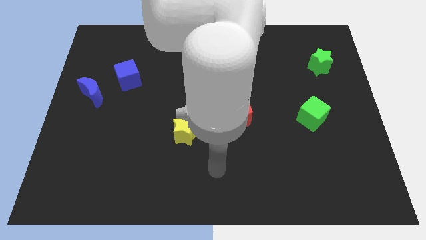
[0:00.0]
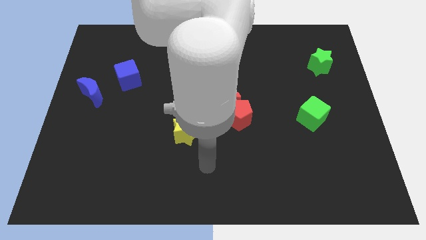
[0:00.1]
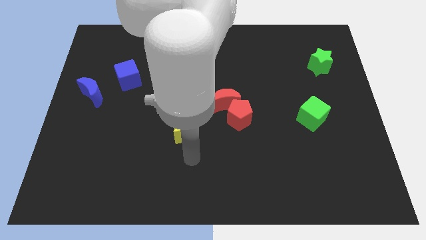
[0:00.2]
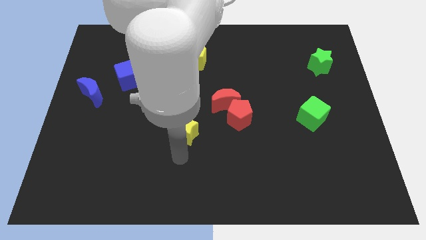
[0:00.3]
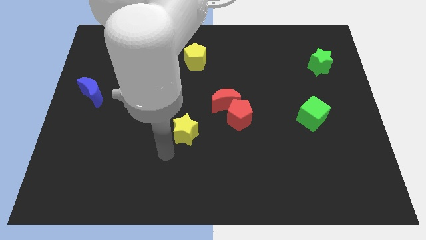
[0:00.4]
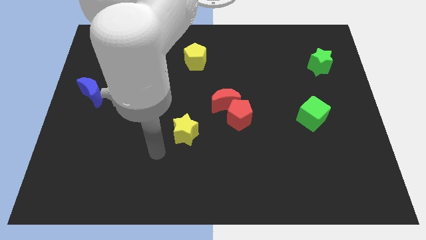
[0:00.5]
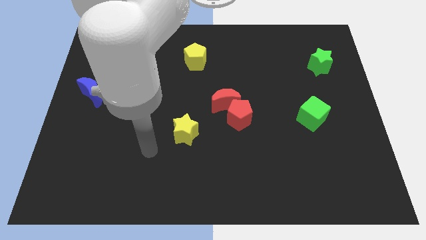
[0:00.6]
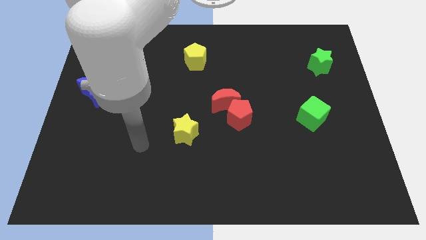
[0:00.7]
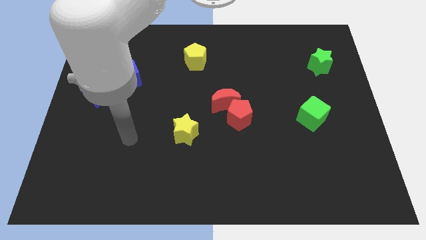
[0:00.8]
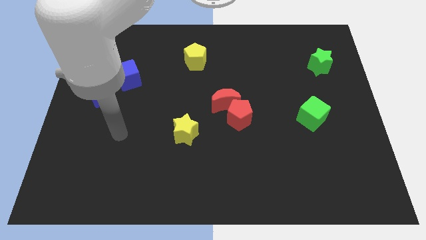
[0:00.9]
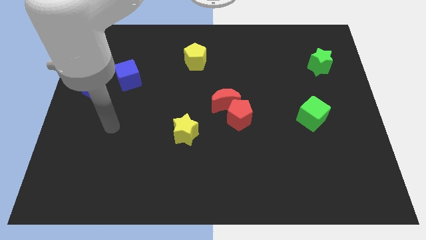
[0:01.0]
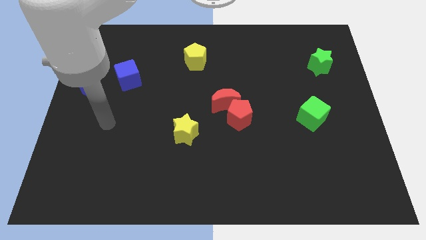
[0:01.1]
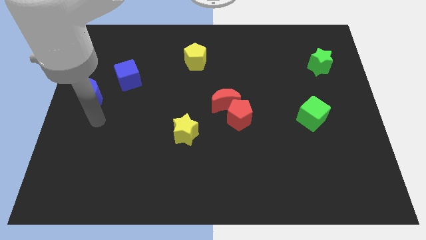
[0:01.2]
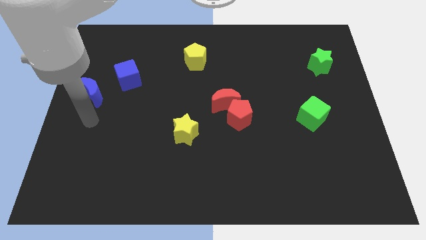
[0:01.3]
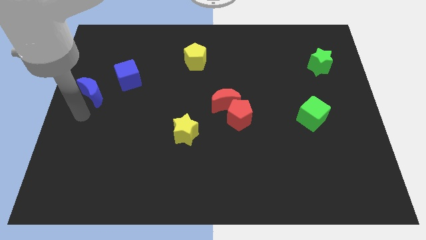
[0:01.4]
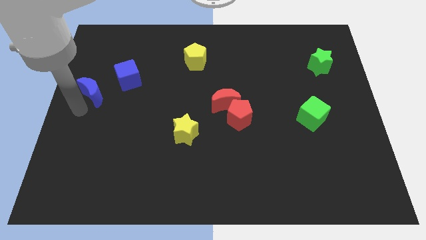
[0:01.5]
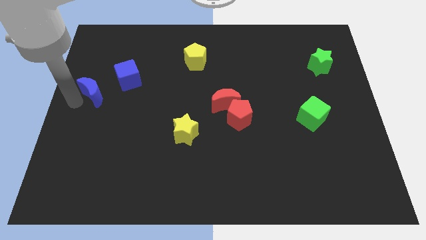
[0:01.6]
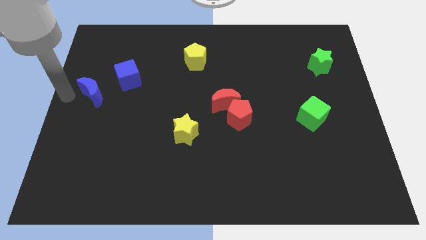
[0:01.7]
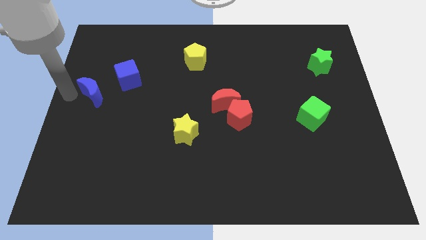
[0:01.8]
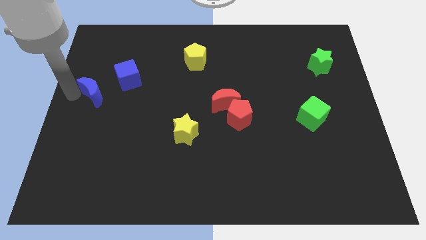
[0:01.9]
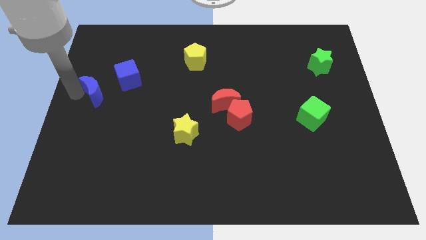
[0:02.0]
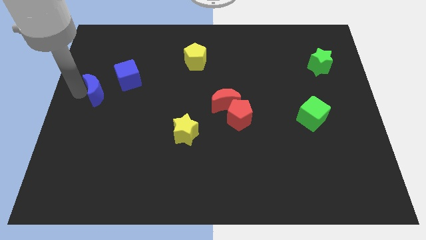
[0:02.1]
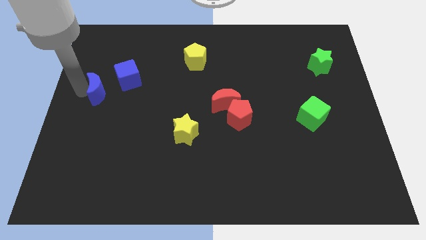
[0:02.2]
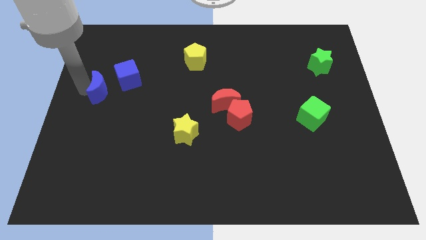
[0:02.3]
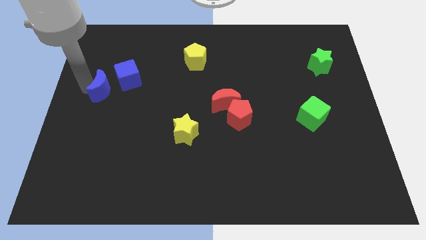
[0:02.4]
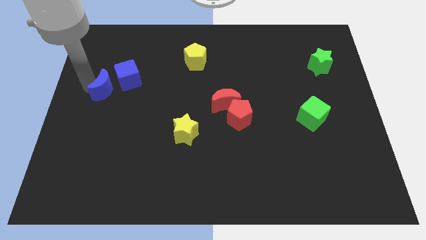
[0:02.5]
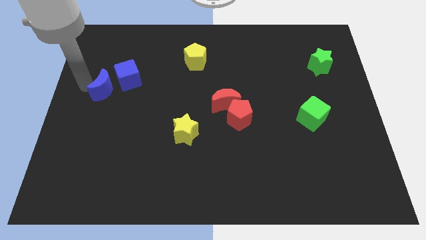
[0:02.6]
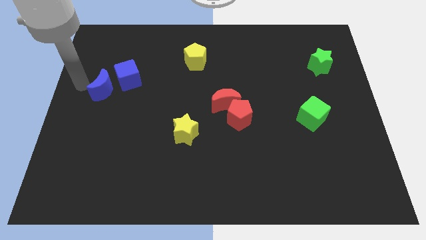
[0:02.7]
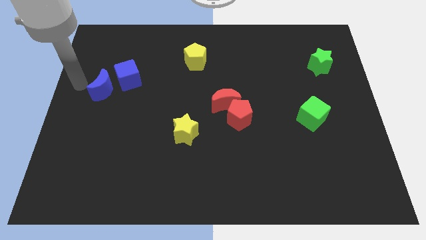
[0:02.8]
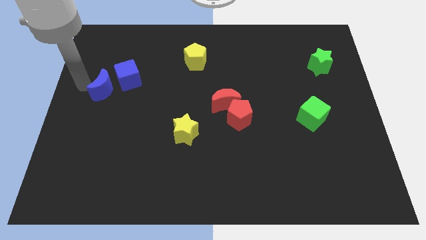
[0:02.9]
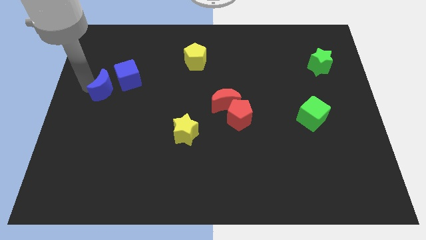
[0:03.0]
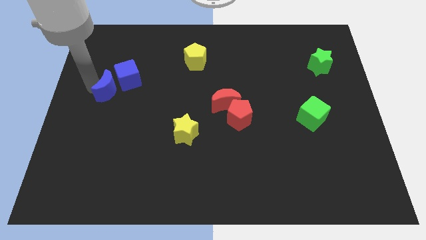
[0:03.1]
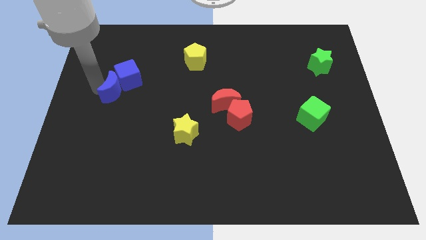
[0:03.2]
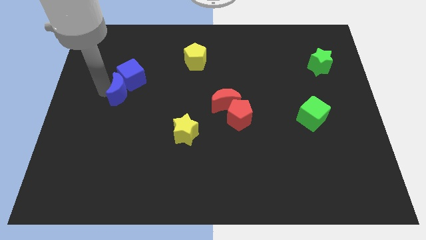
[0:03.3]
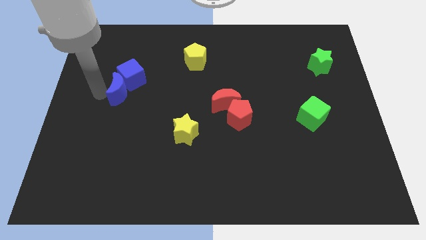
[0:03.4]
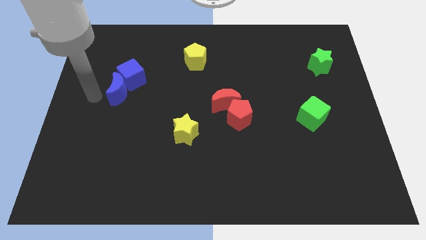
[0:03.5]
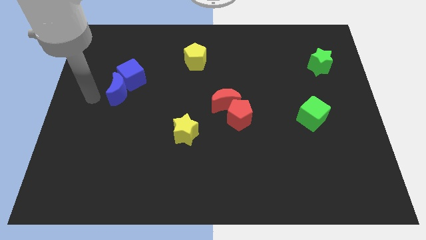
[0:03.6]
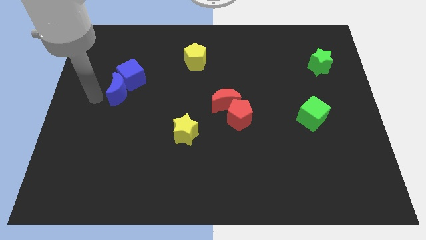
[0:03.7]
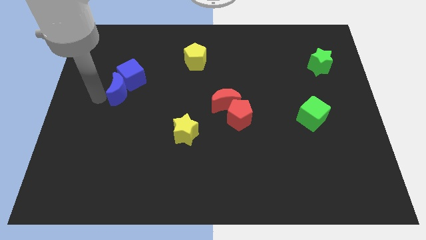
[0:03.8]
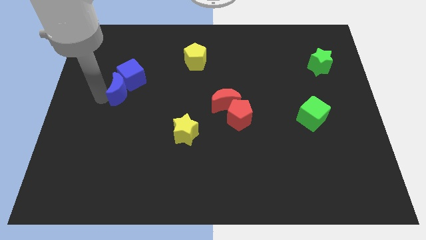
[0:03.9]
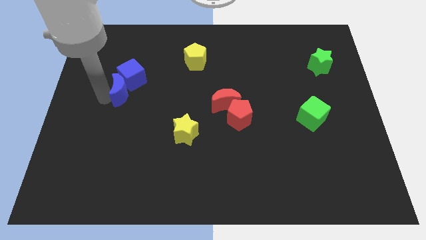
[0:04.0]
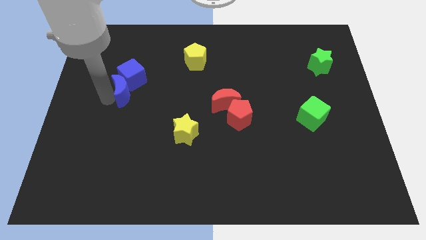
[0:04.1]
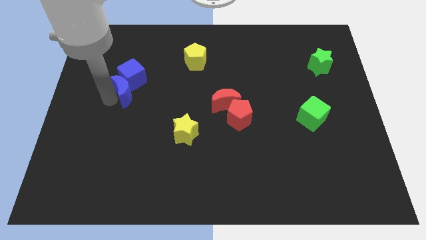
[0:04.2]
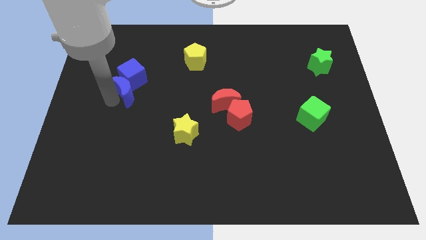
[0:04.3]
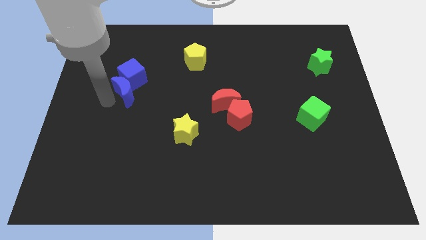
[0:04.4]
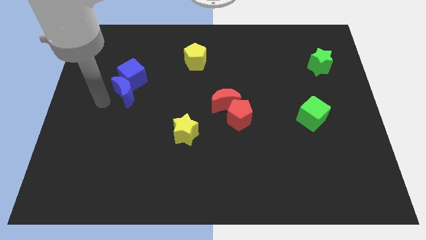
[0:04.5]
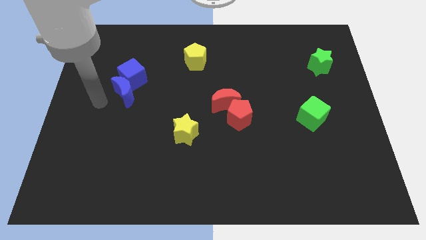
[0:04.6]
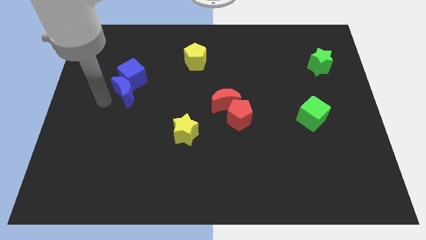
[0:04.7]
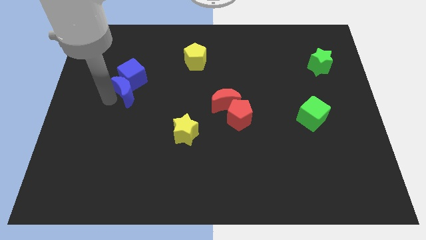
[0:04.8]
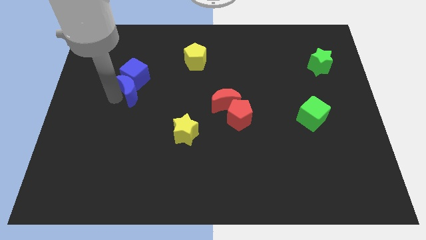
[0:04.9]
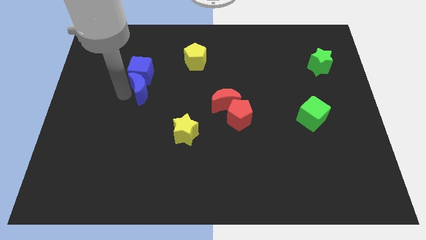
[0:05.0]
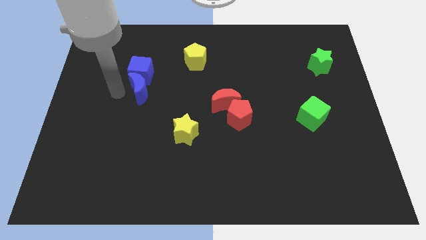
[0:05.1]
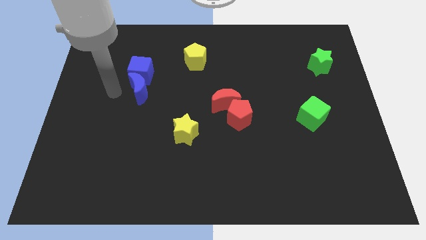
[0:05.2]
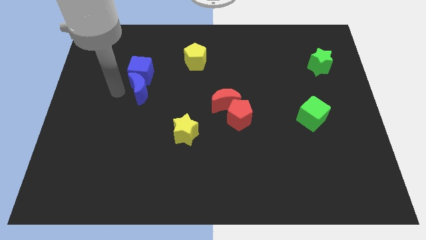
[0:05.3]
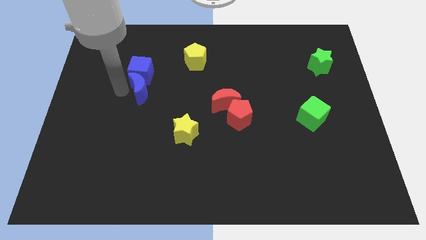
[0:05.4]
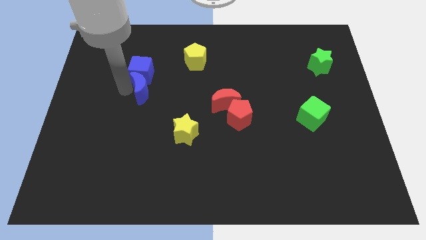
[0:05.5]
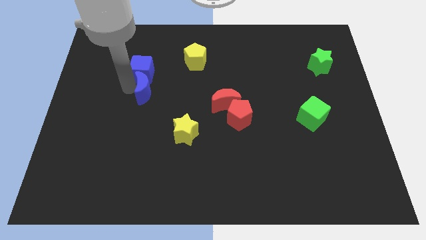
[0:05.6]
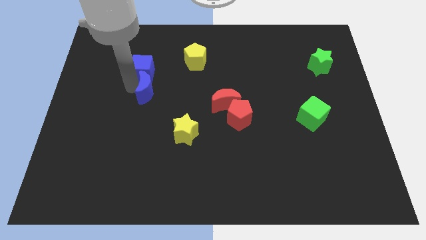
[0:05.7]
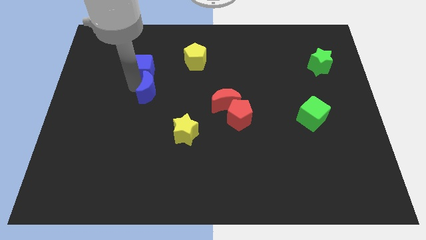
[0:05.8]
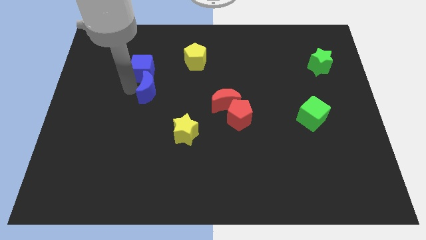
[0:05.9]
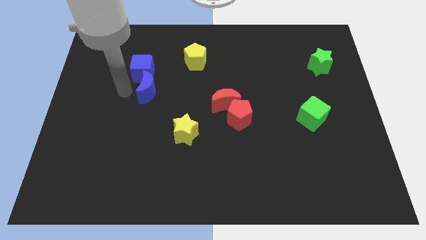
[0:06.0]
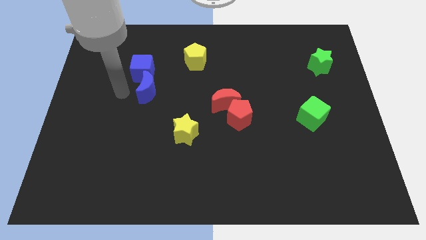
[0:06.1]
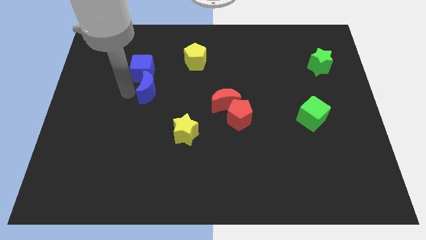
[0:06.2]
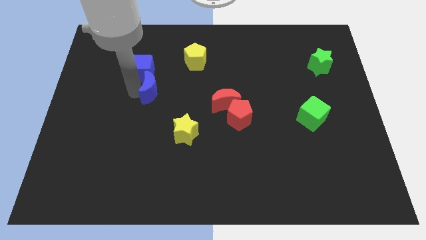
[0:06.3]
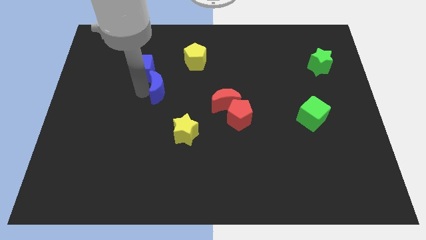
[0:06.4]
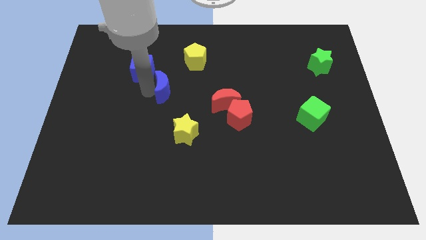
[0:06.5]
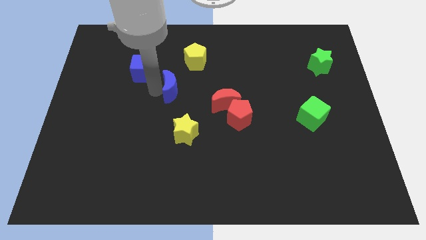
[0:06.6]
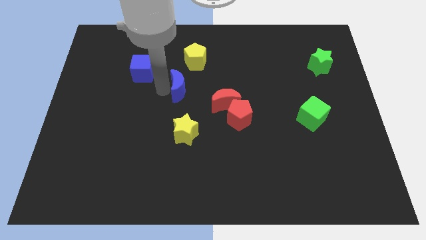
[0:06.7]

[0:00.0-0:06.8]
slide the blue moon below the yellow pentagon

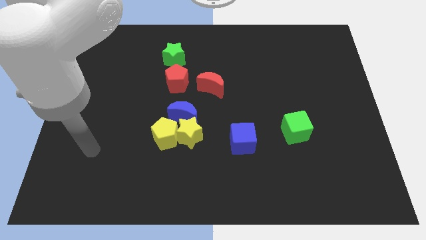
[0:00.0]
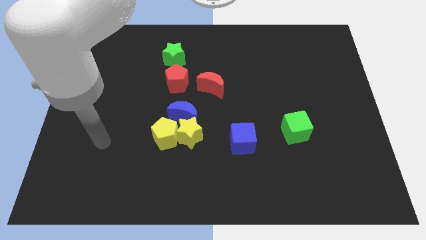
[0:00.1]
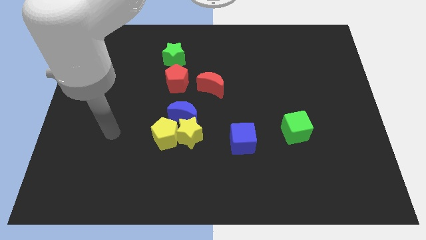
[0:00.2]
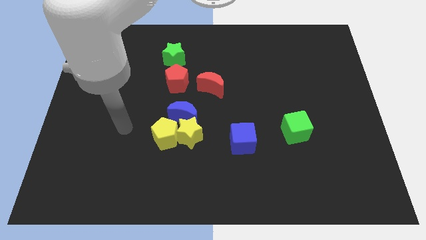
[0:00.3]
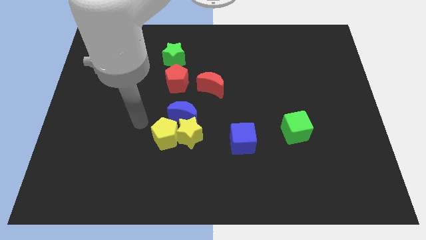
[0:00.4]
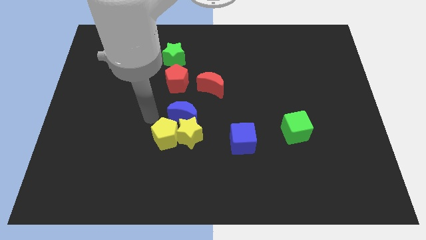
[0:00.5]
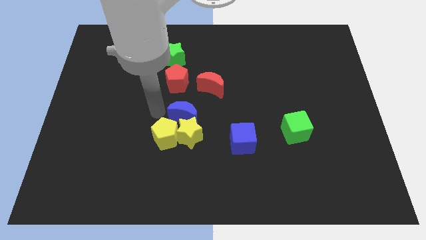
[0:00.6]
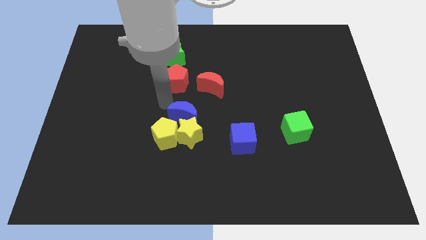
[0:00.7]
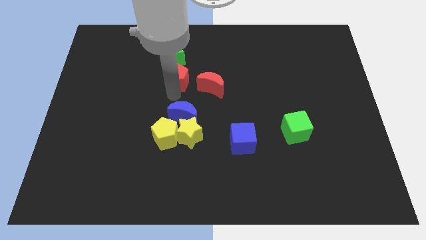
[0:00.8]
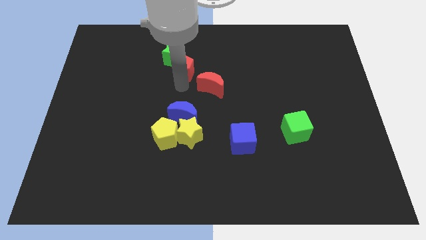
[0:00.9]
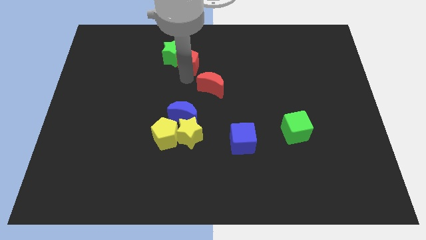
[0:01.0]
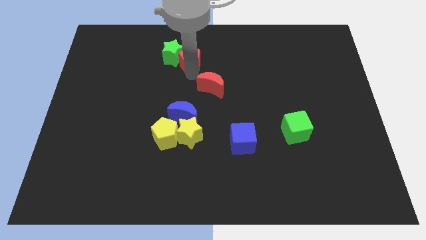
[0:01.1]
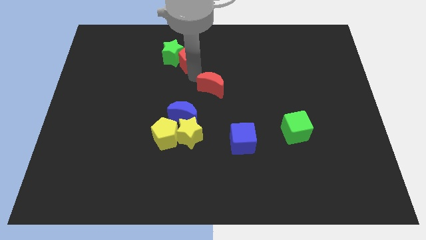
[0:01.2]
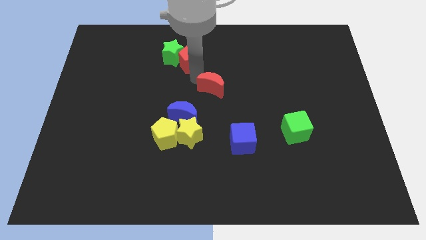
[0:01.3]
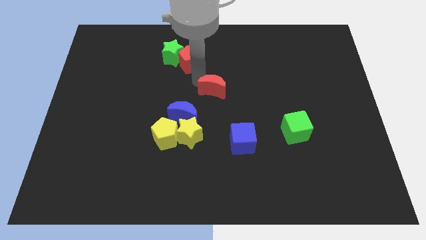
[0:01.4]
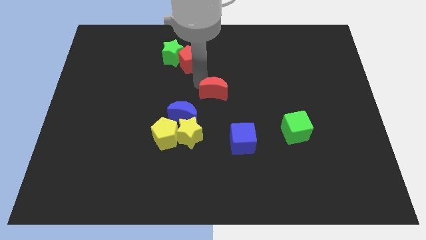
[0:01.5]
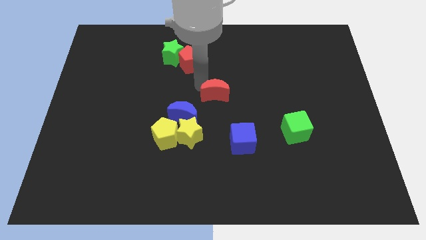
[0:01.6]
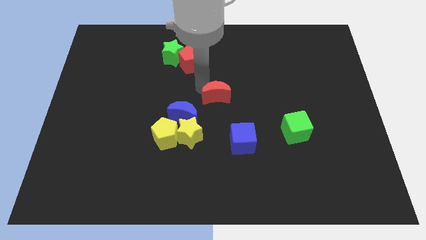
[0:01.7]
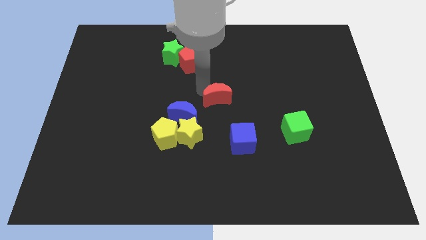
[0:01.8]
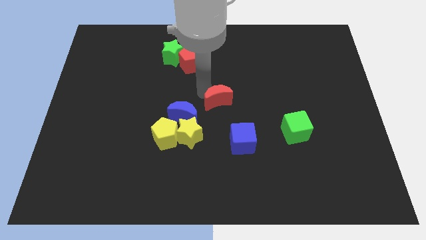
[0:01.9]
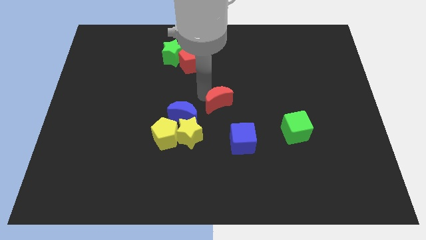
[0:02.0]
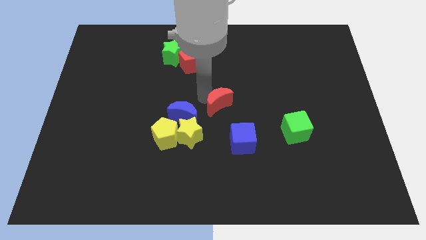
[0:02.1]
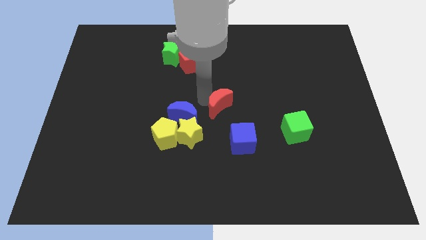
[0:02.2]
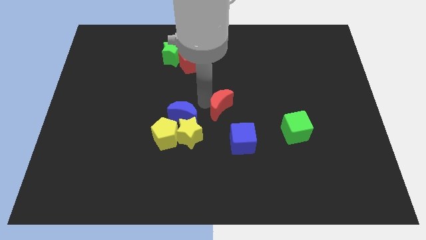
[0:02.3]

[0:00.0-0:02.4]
put the red moon to the top of the blue cube
